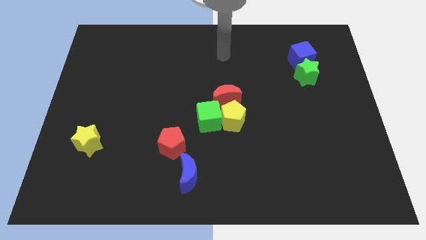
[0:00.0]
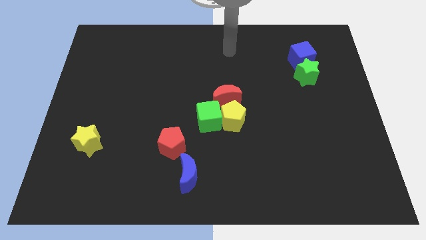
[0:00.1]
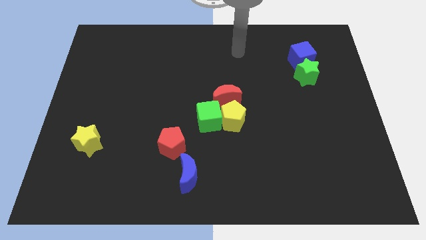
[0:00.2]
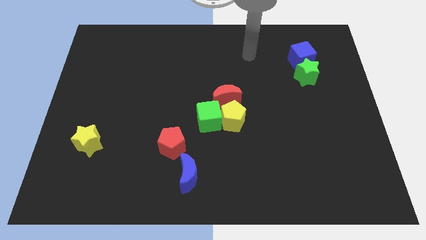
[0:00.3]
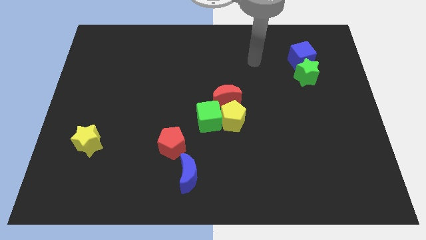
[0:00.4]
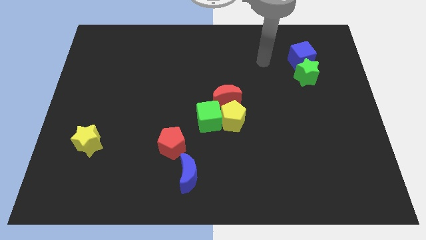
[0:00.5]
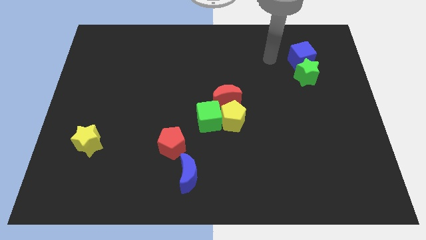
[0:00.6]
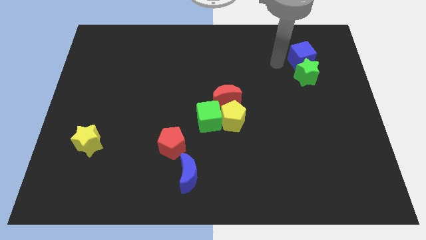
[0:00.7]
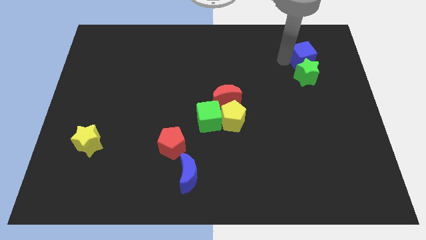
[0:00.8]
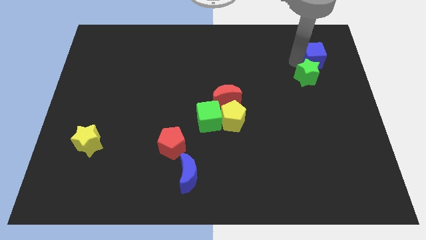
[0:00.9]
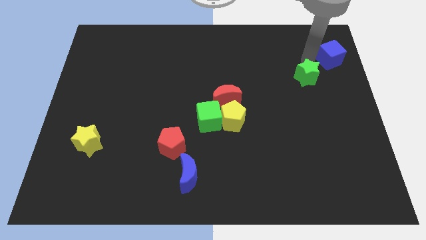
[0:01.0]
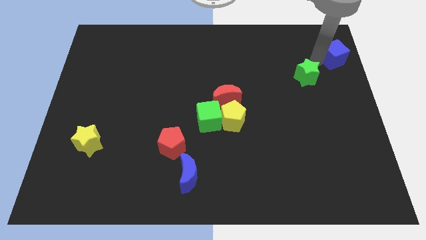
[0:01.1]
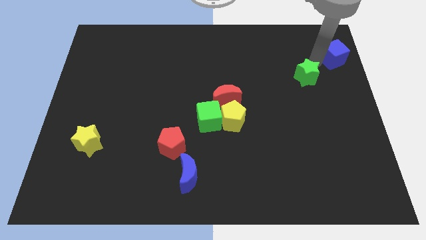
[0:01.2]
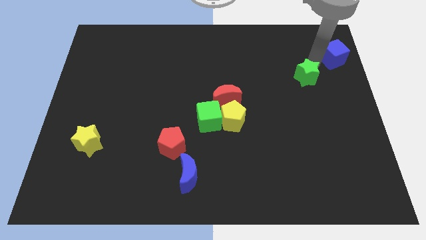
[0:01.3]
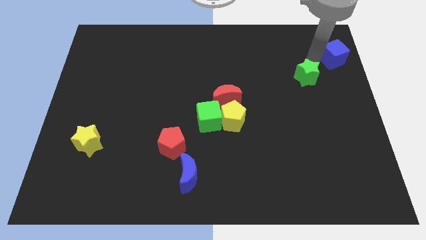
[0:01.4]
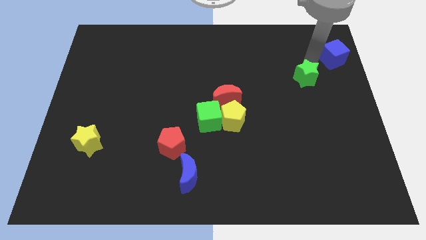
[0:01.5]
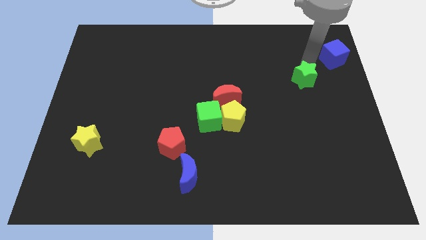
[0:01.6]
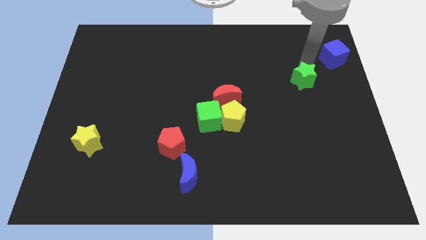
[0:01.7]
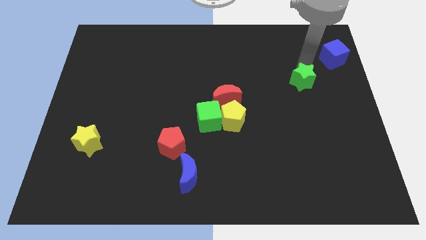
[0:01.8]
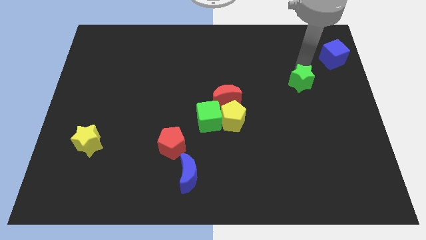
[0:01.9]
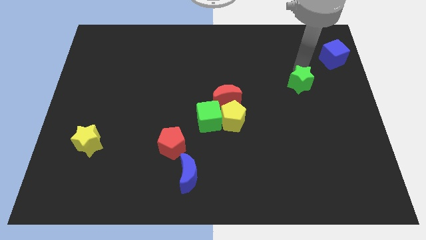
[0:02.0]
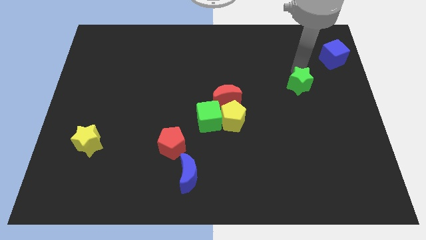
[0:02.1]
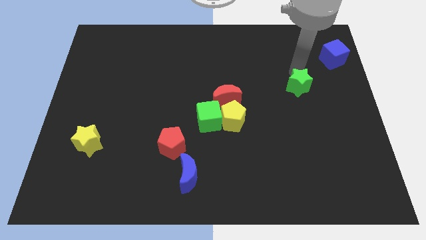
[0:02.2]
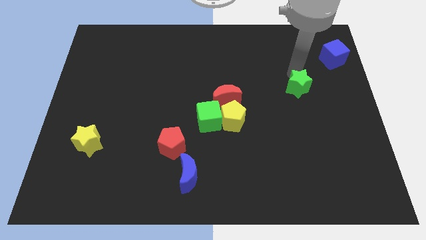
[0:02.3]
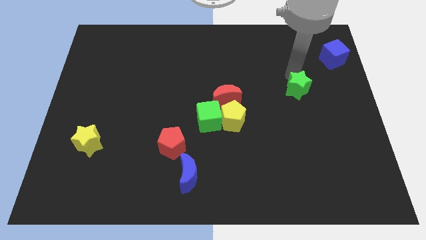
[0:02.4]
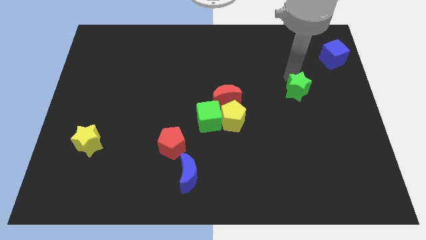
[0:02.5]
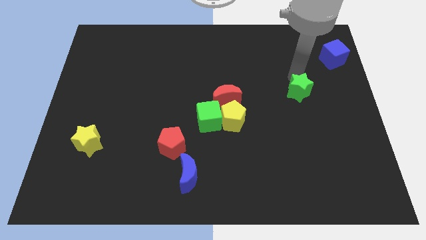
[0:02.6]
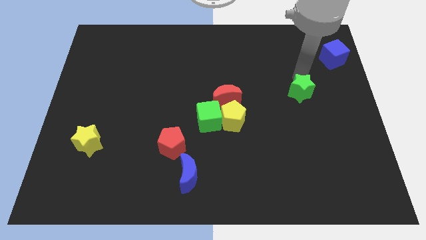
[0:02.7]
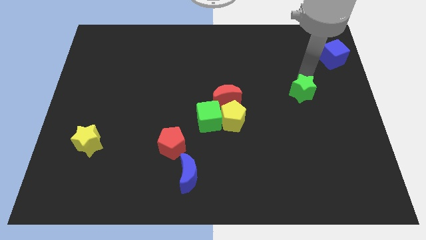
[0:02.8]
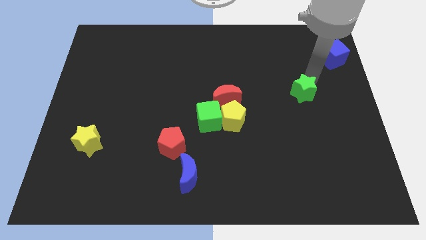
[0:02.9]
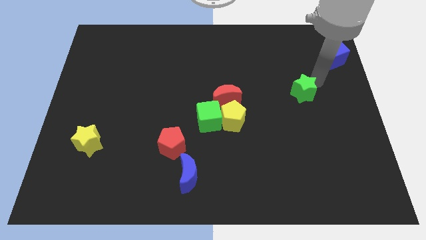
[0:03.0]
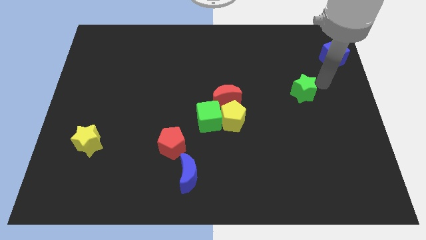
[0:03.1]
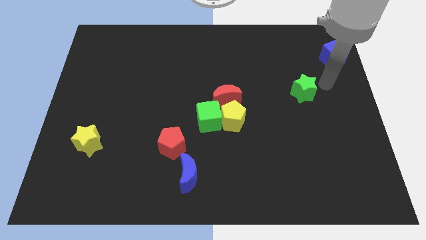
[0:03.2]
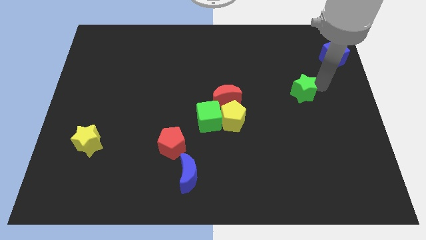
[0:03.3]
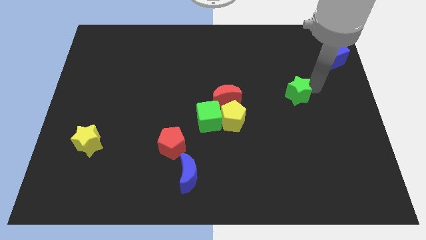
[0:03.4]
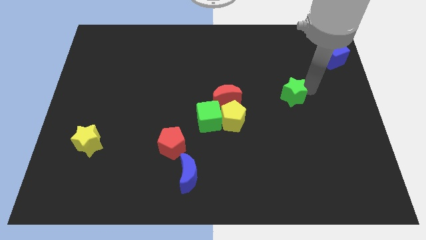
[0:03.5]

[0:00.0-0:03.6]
slightly push the green star down and to the left

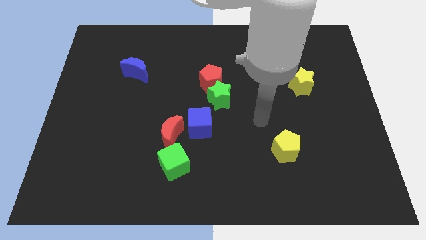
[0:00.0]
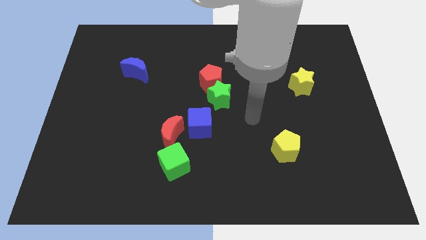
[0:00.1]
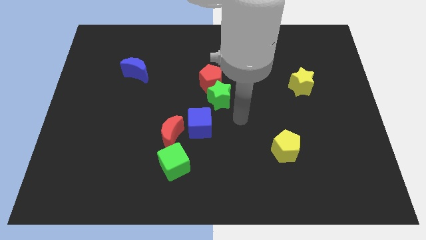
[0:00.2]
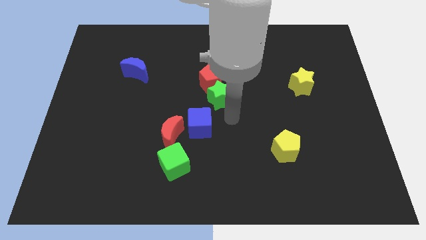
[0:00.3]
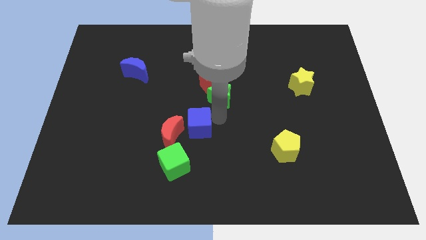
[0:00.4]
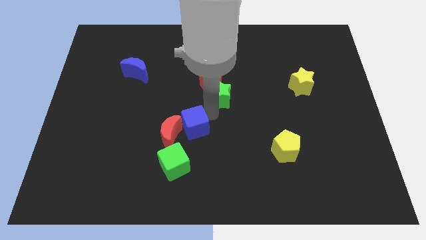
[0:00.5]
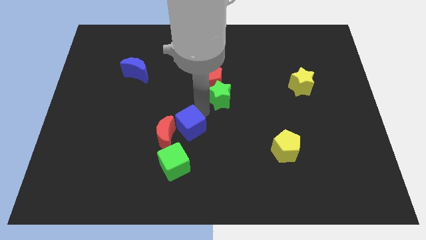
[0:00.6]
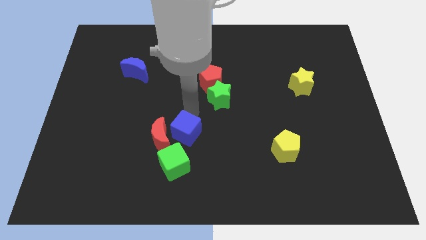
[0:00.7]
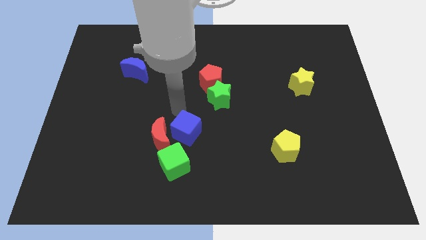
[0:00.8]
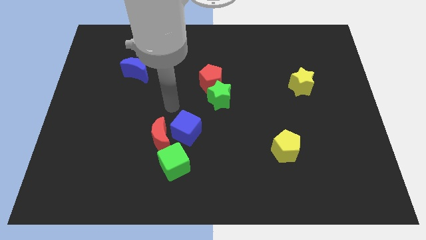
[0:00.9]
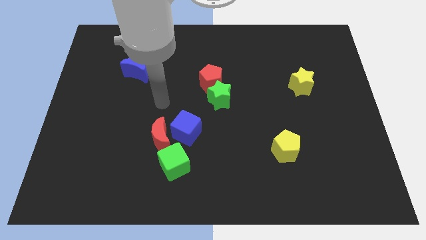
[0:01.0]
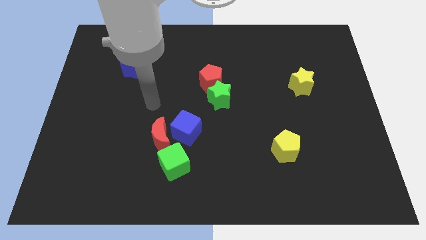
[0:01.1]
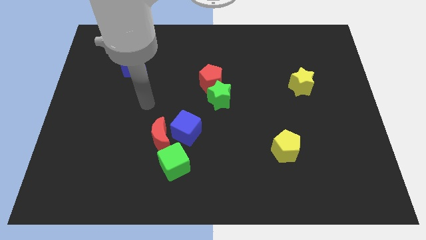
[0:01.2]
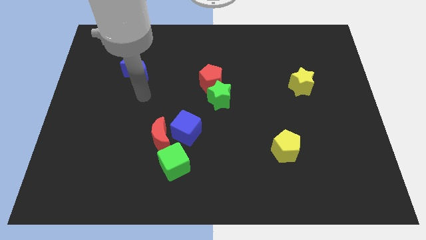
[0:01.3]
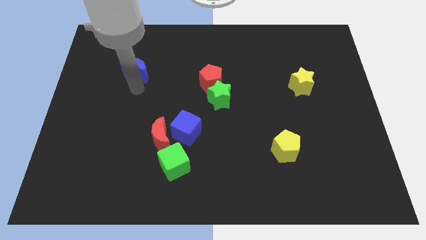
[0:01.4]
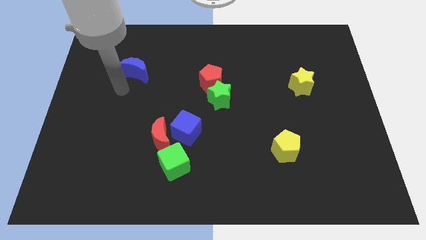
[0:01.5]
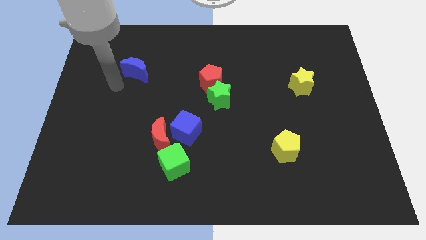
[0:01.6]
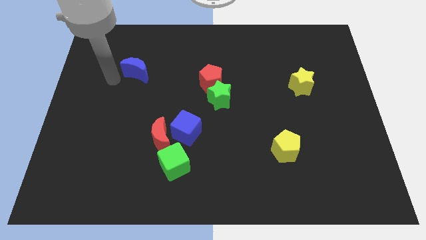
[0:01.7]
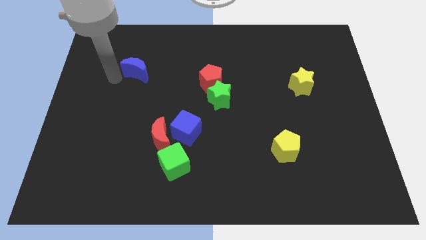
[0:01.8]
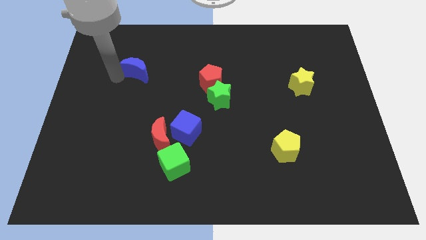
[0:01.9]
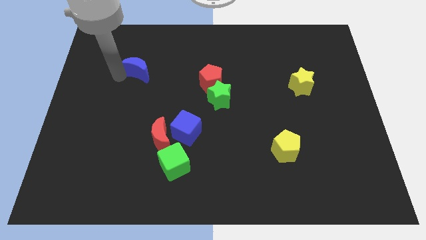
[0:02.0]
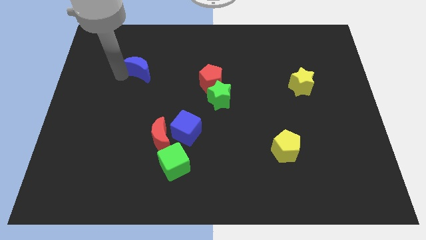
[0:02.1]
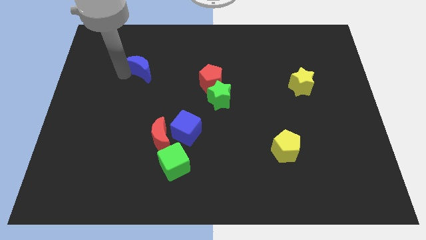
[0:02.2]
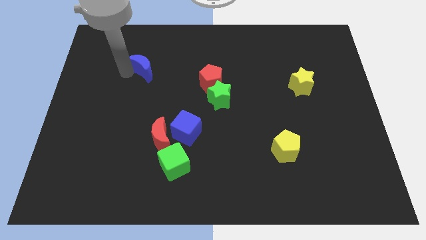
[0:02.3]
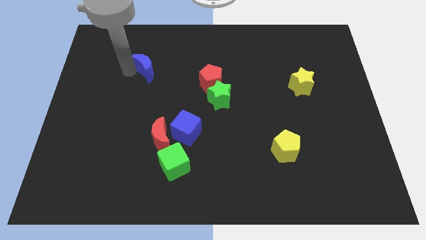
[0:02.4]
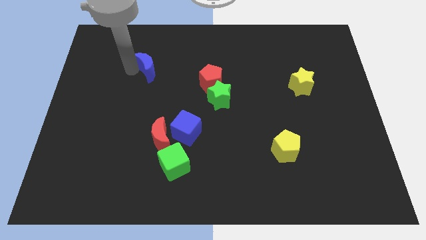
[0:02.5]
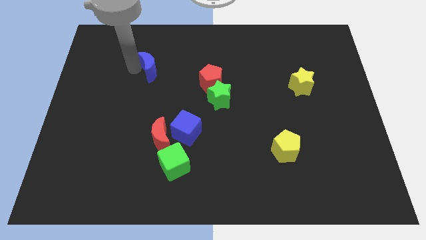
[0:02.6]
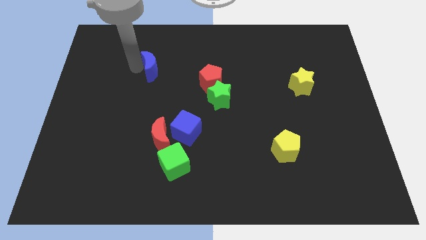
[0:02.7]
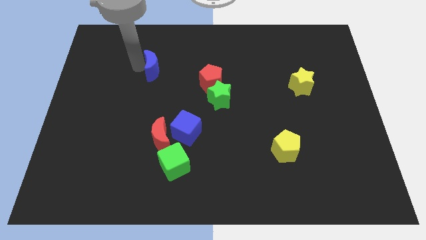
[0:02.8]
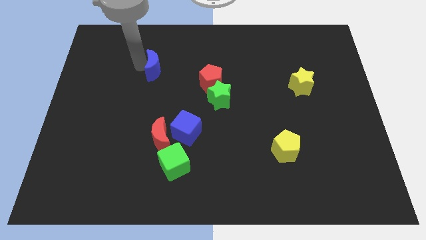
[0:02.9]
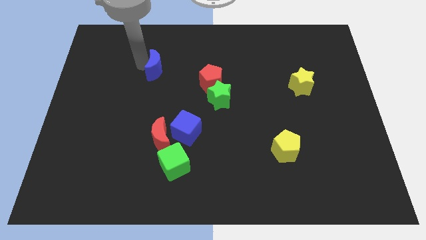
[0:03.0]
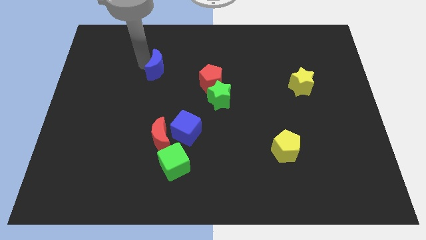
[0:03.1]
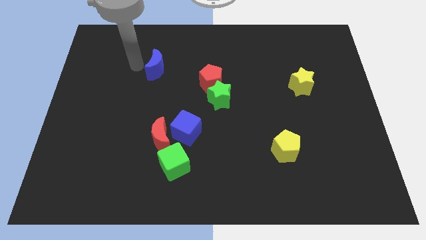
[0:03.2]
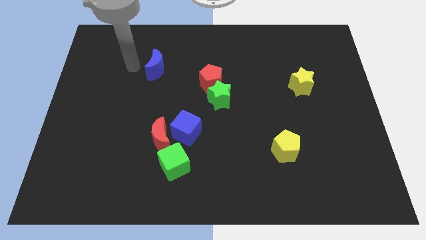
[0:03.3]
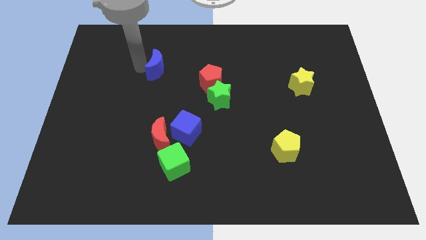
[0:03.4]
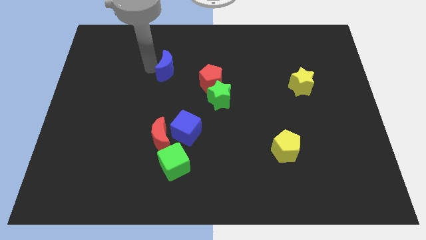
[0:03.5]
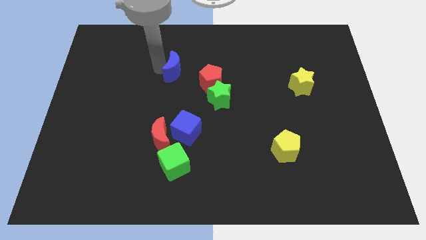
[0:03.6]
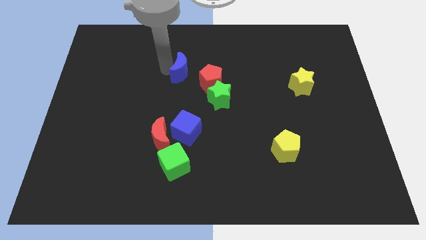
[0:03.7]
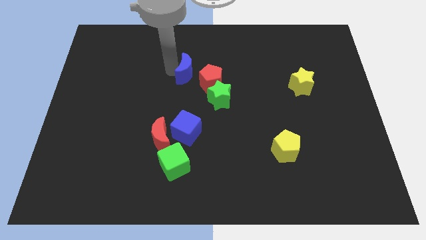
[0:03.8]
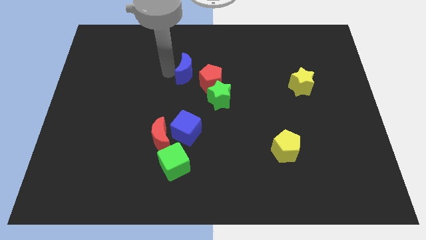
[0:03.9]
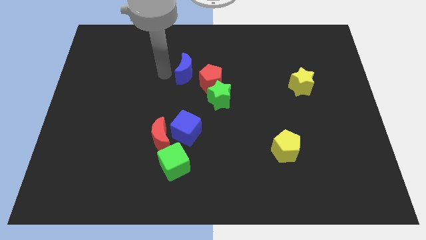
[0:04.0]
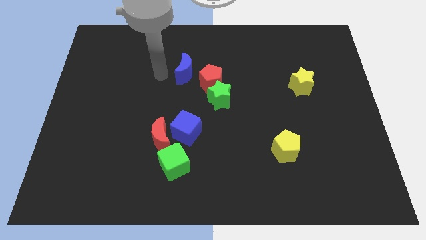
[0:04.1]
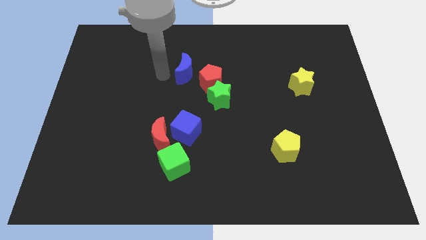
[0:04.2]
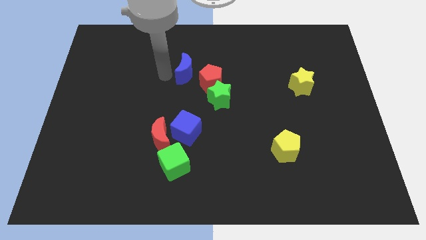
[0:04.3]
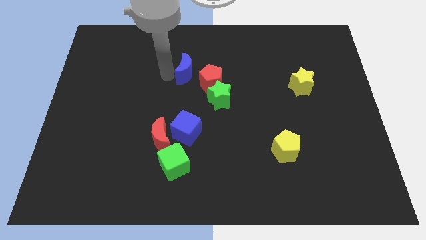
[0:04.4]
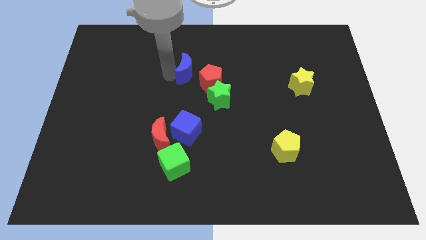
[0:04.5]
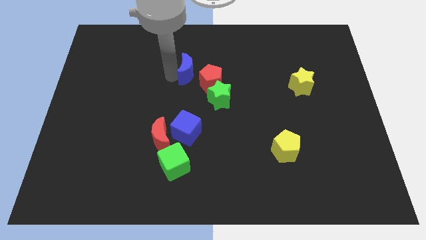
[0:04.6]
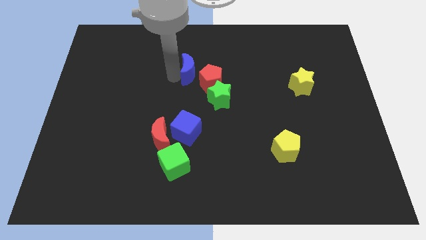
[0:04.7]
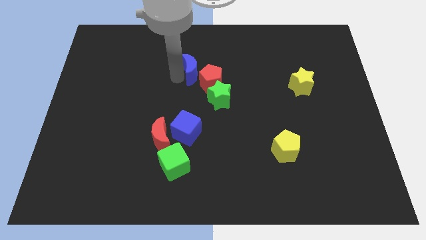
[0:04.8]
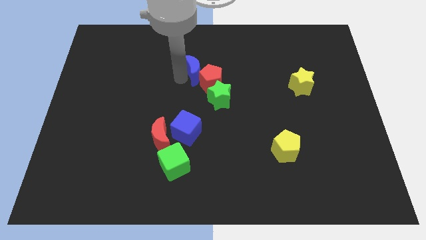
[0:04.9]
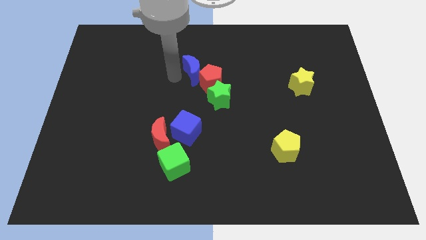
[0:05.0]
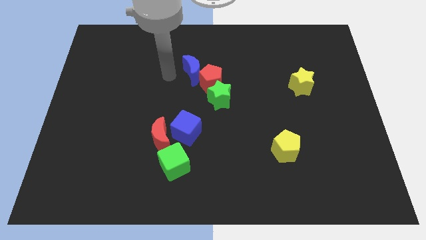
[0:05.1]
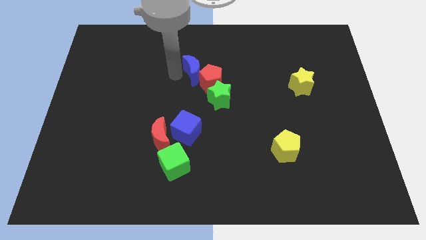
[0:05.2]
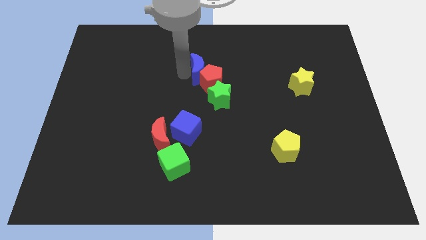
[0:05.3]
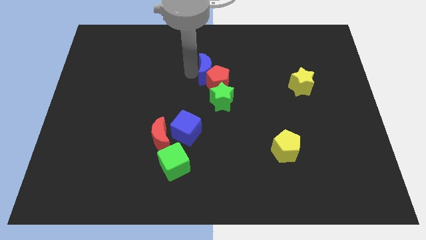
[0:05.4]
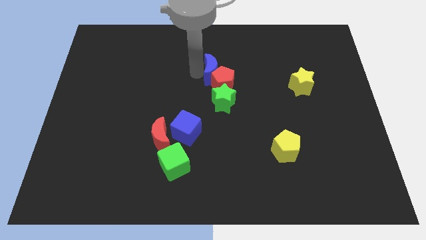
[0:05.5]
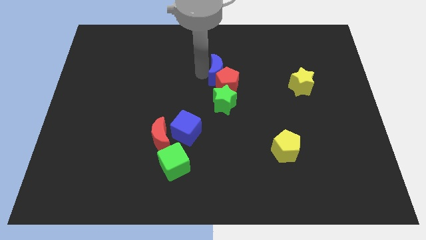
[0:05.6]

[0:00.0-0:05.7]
move the blue moon right
